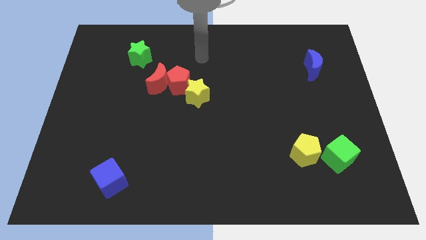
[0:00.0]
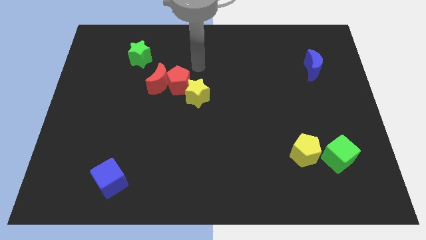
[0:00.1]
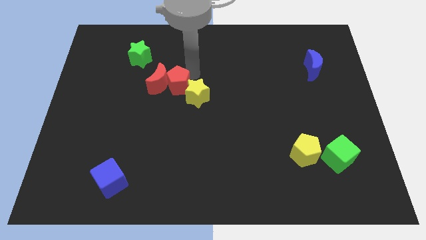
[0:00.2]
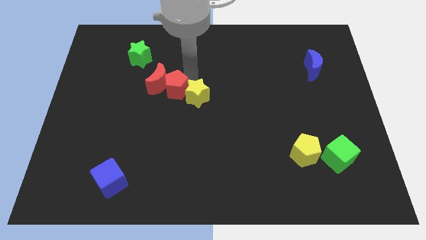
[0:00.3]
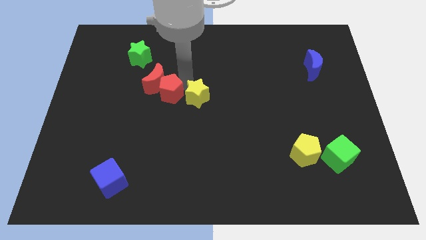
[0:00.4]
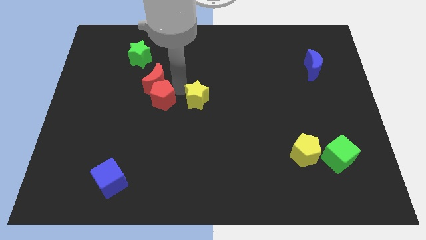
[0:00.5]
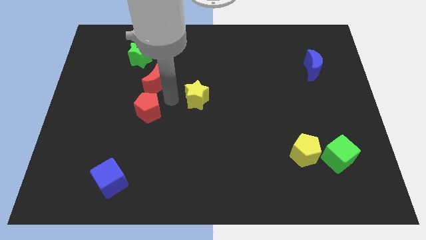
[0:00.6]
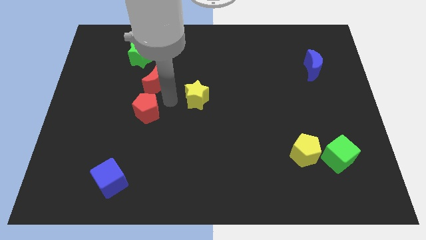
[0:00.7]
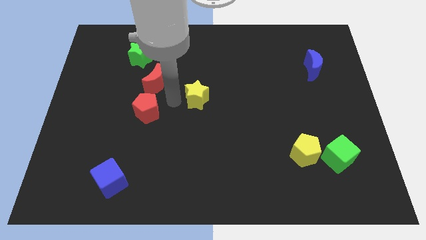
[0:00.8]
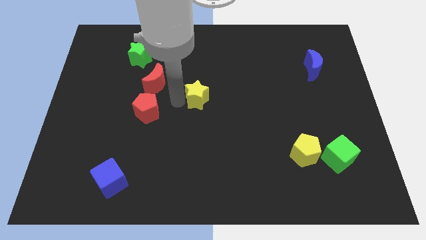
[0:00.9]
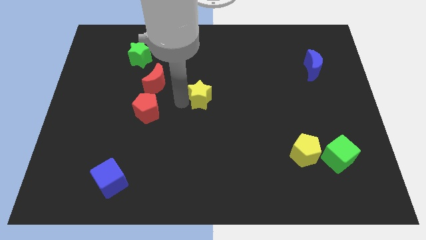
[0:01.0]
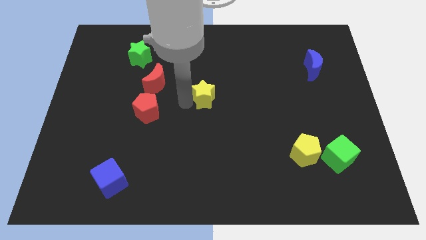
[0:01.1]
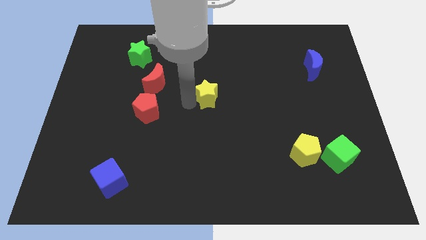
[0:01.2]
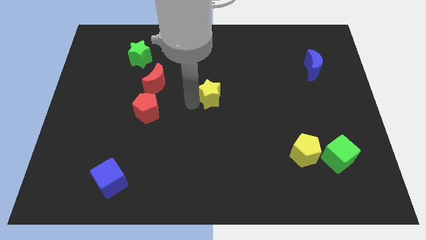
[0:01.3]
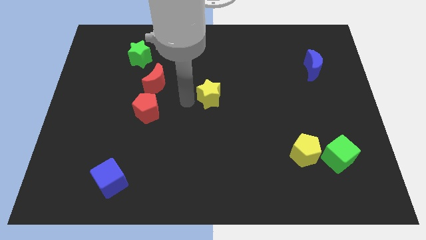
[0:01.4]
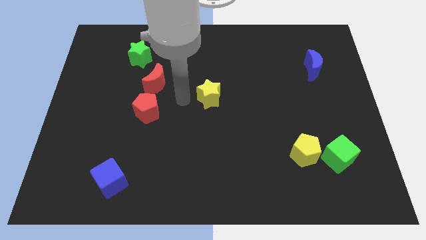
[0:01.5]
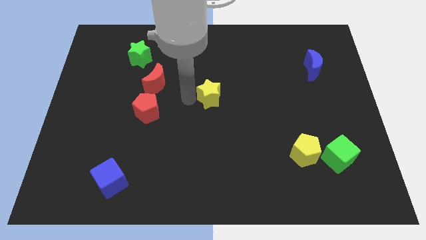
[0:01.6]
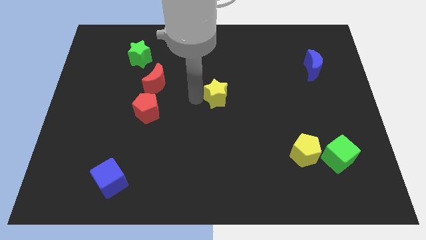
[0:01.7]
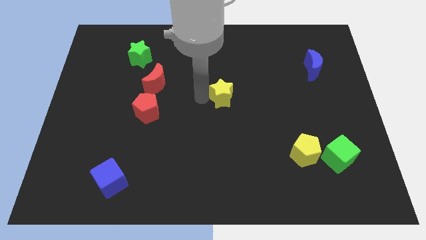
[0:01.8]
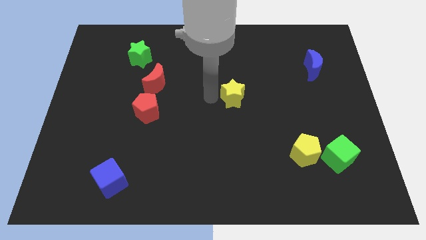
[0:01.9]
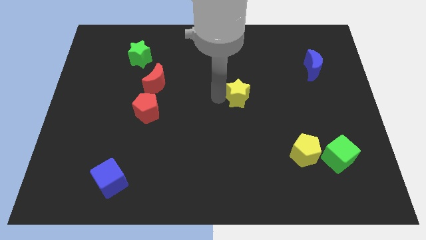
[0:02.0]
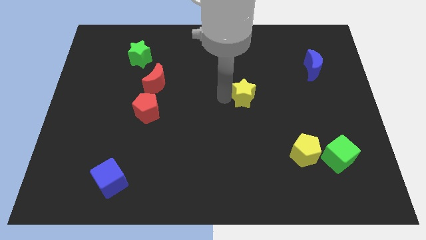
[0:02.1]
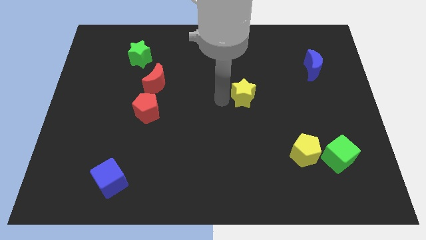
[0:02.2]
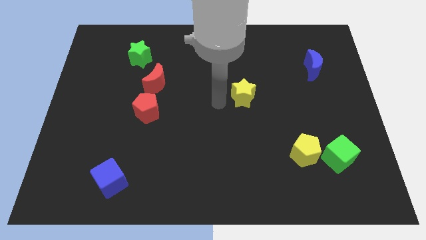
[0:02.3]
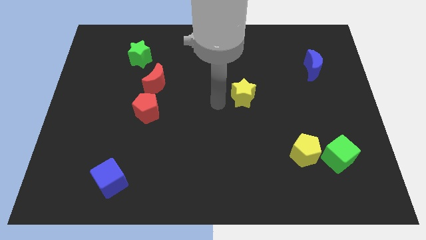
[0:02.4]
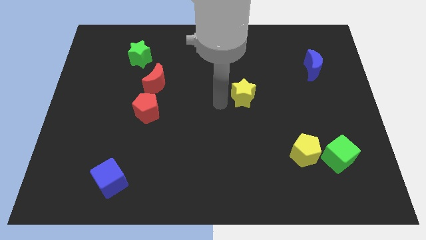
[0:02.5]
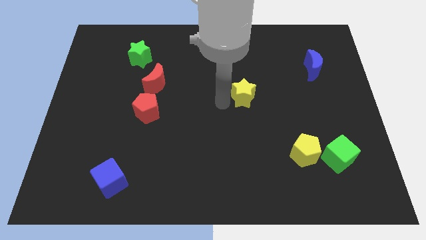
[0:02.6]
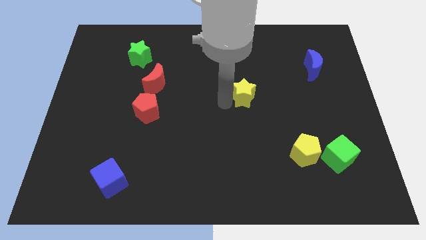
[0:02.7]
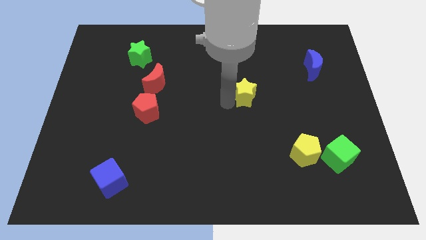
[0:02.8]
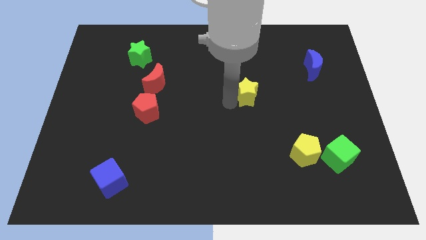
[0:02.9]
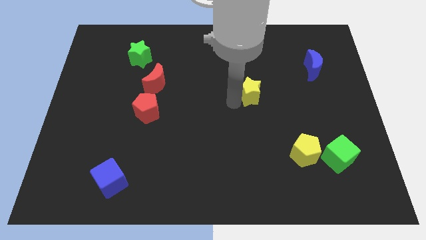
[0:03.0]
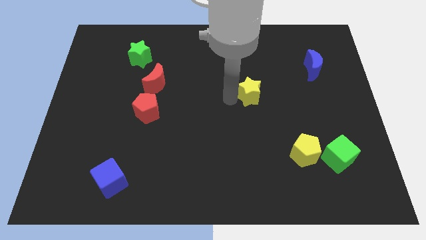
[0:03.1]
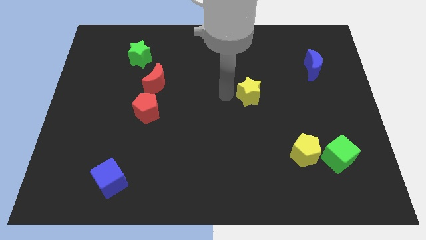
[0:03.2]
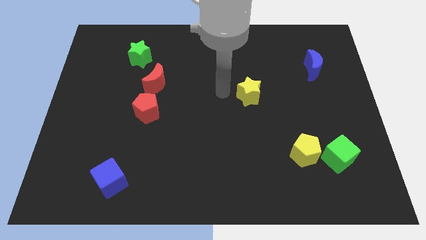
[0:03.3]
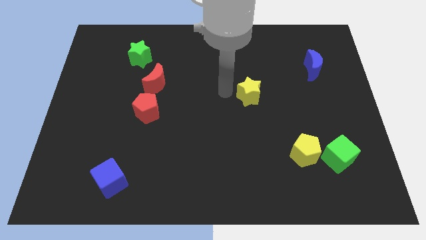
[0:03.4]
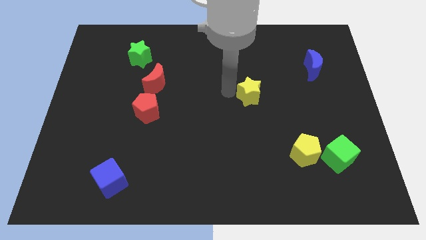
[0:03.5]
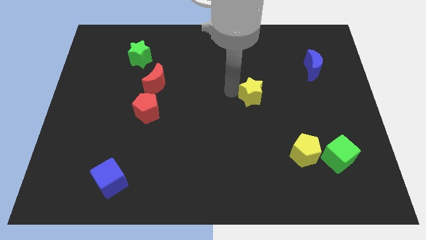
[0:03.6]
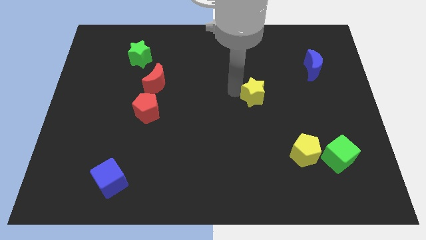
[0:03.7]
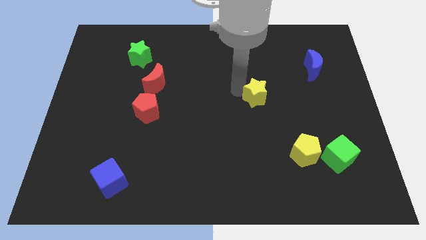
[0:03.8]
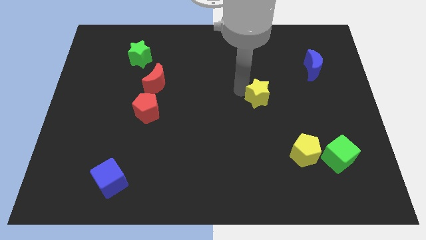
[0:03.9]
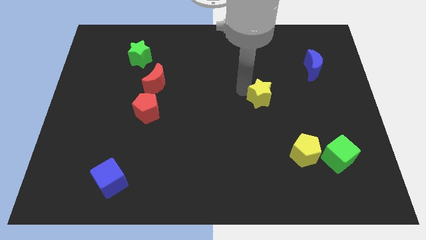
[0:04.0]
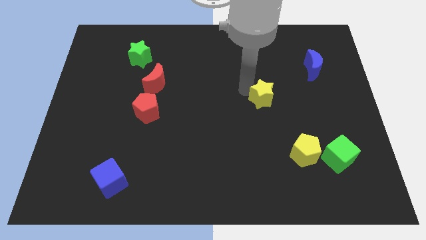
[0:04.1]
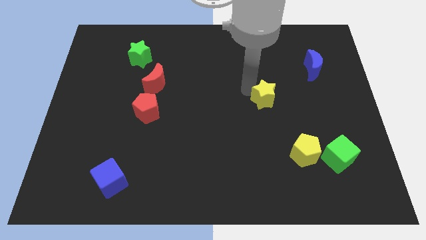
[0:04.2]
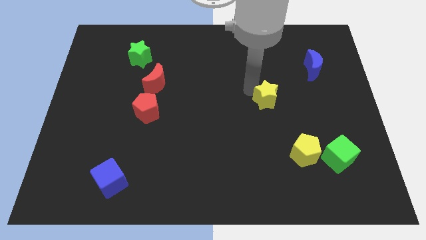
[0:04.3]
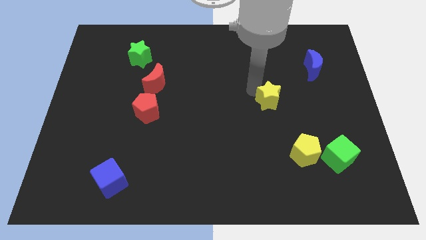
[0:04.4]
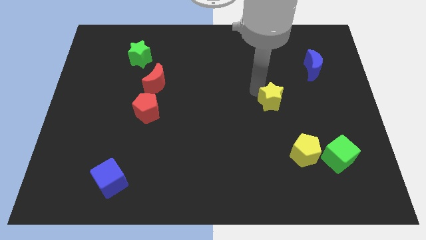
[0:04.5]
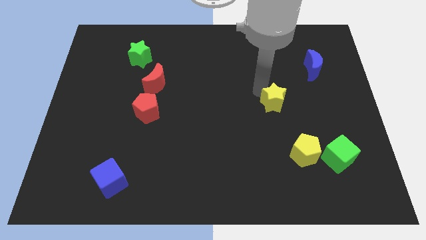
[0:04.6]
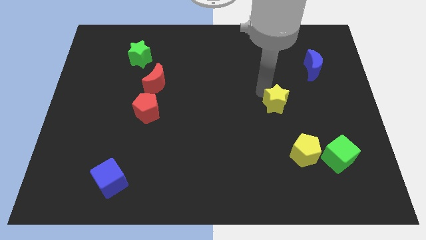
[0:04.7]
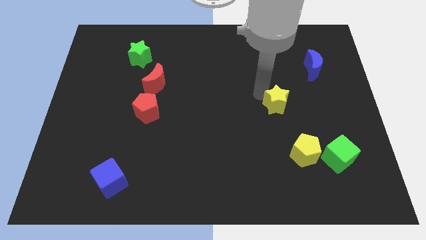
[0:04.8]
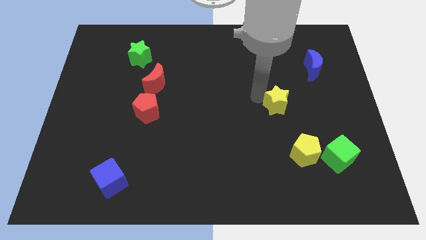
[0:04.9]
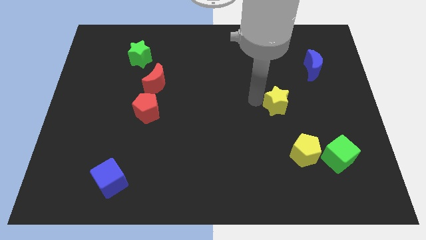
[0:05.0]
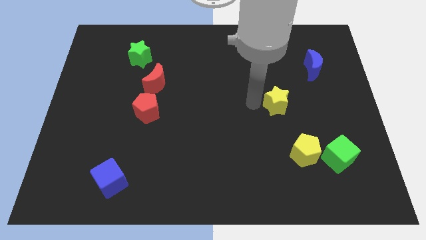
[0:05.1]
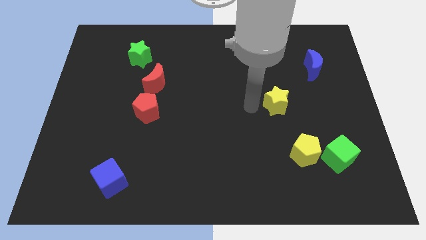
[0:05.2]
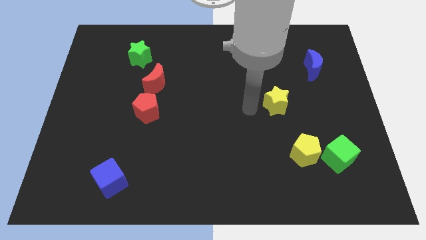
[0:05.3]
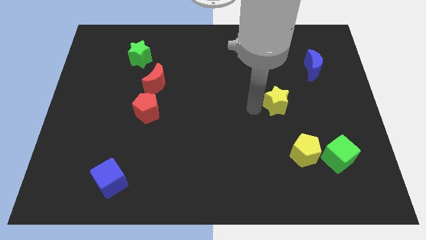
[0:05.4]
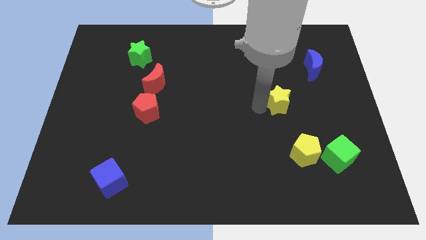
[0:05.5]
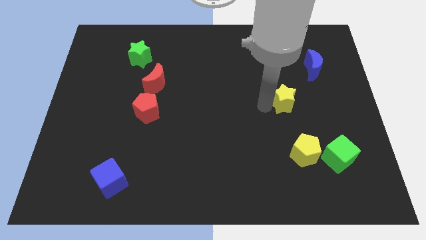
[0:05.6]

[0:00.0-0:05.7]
slide the yellow star right

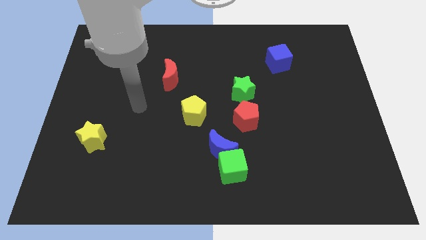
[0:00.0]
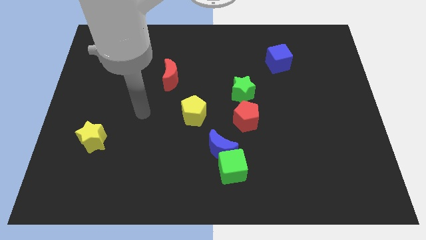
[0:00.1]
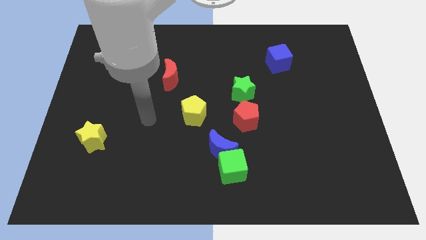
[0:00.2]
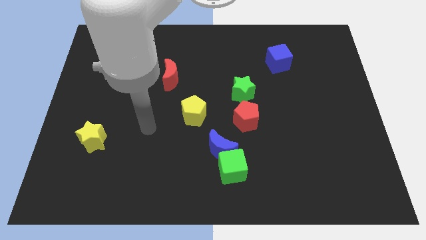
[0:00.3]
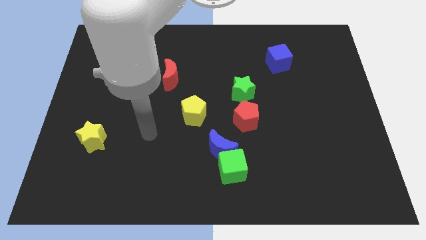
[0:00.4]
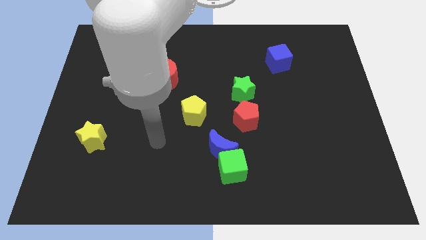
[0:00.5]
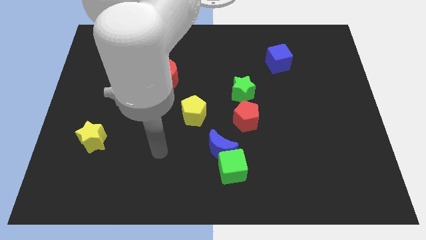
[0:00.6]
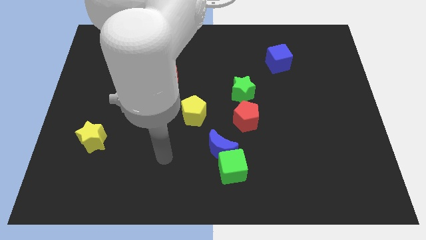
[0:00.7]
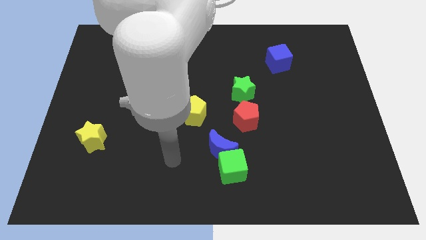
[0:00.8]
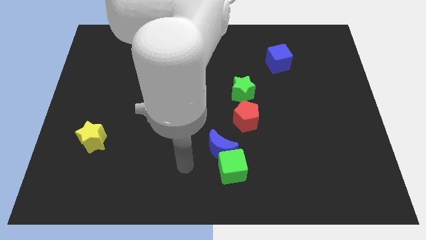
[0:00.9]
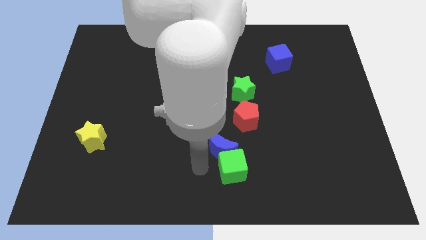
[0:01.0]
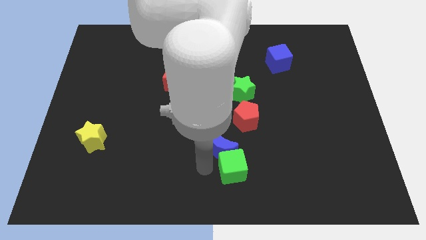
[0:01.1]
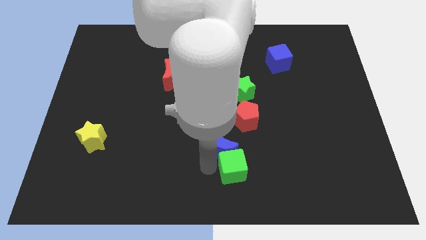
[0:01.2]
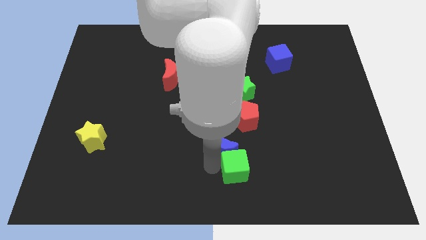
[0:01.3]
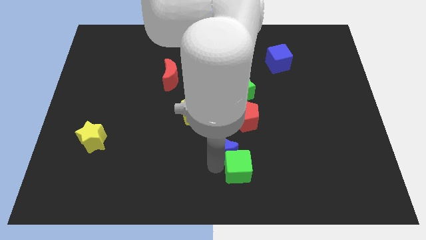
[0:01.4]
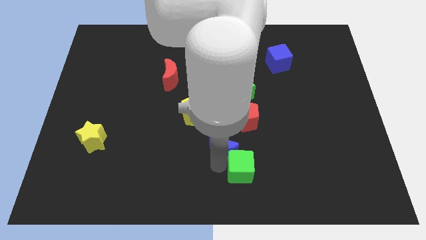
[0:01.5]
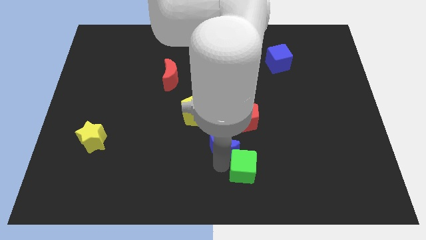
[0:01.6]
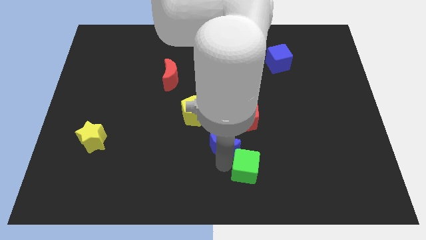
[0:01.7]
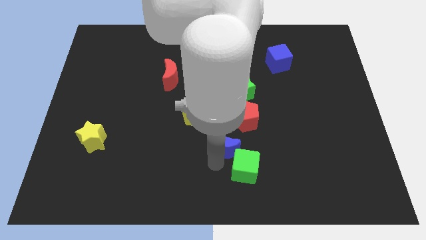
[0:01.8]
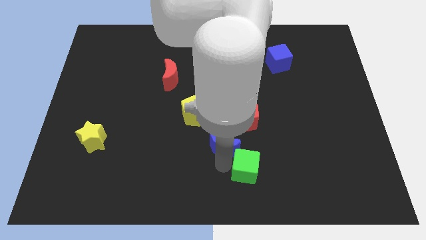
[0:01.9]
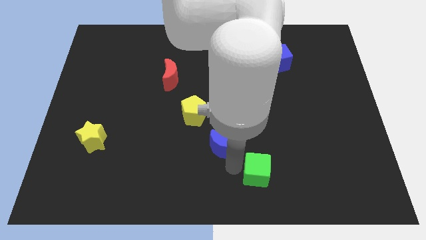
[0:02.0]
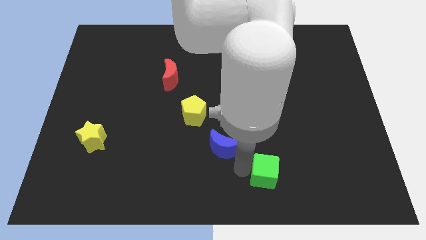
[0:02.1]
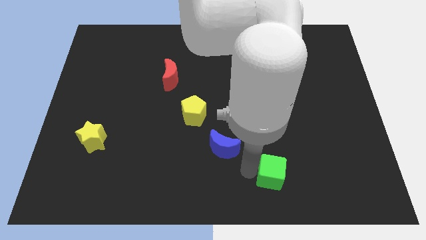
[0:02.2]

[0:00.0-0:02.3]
slightly move the green cube to the right

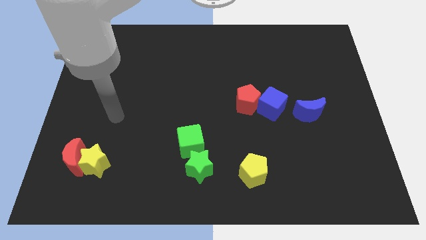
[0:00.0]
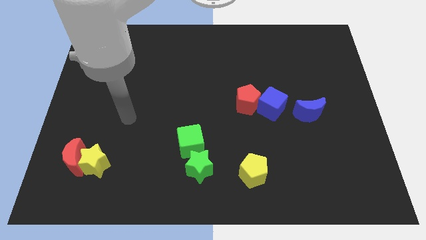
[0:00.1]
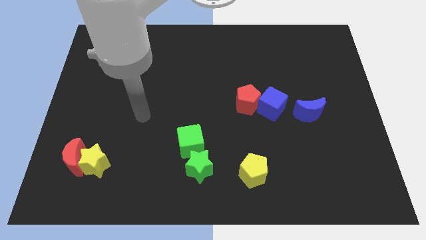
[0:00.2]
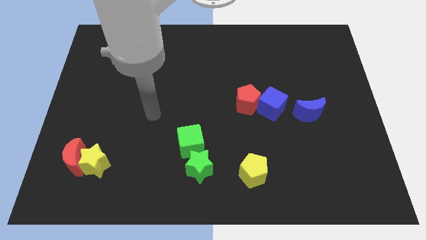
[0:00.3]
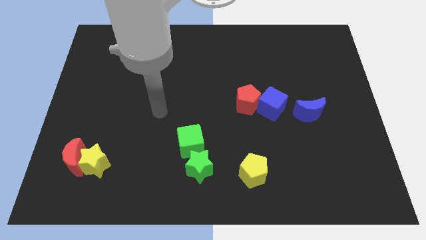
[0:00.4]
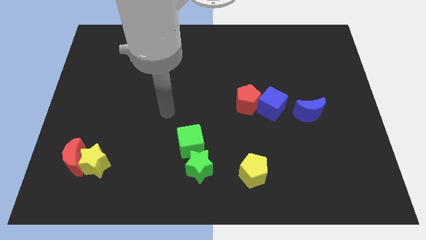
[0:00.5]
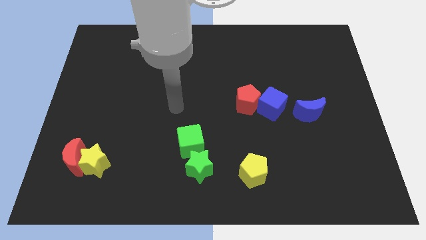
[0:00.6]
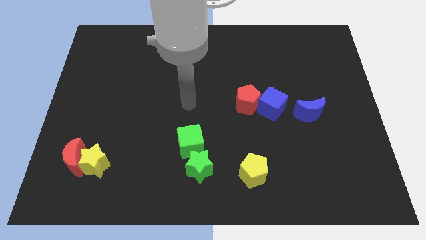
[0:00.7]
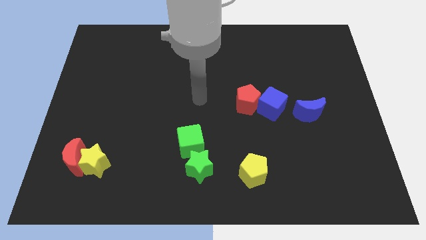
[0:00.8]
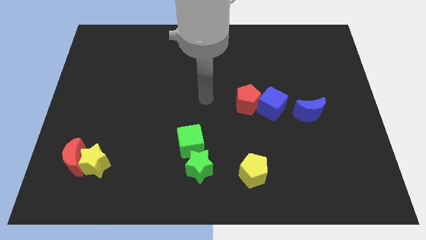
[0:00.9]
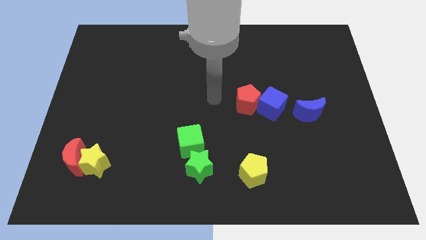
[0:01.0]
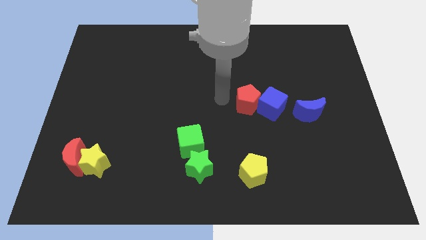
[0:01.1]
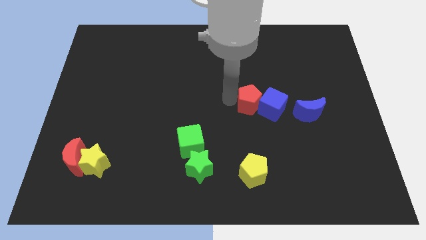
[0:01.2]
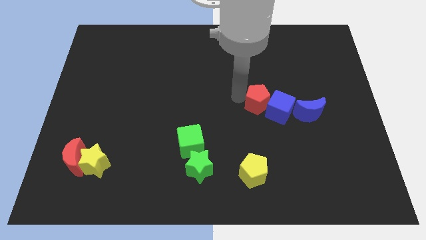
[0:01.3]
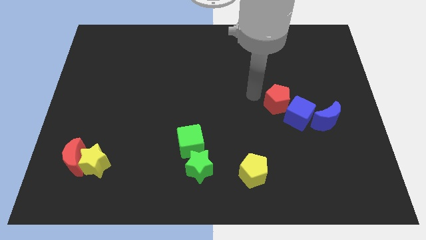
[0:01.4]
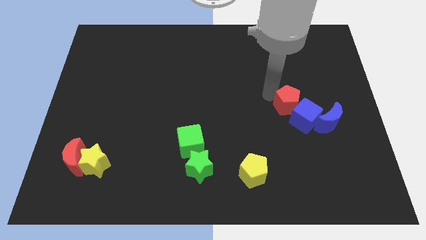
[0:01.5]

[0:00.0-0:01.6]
push the blue cube downwards and to the right diagonally a little bit
